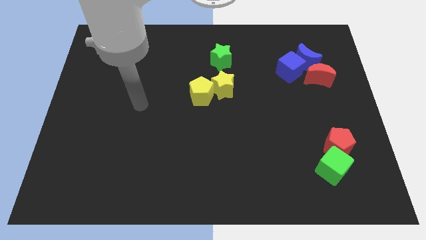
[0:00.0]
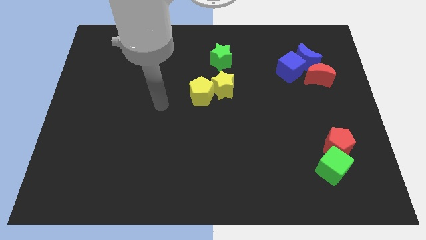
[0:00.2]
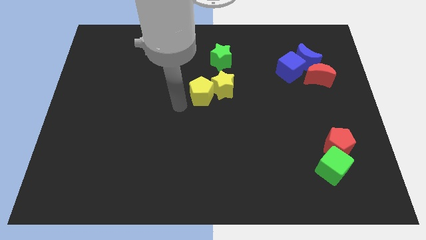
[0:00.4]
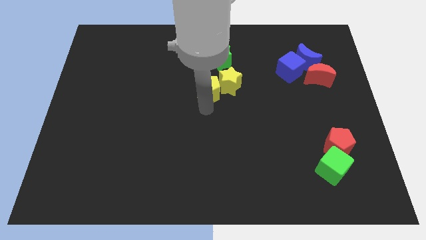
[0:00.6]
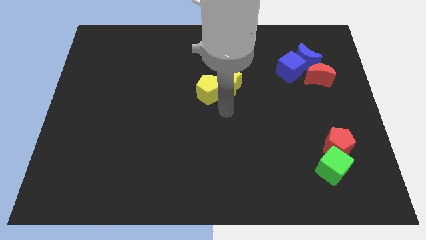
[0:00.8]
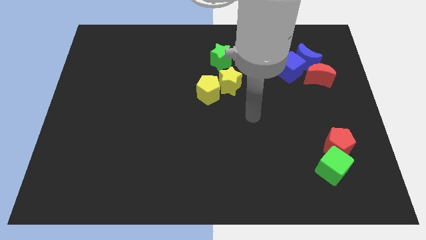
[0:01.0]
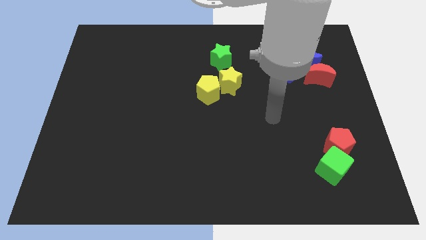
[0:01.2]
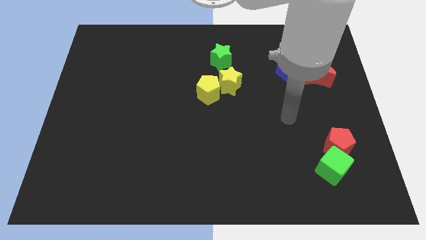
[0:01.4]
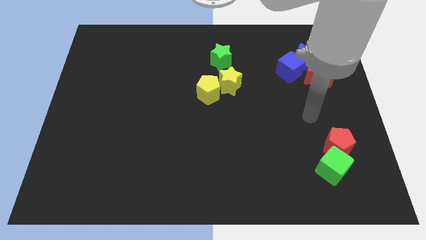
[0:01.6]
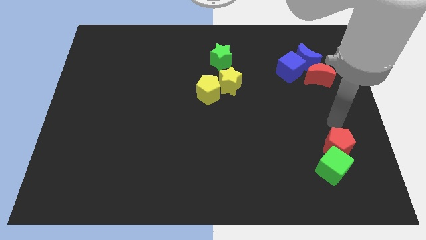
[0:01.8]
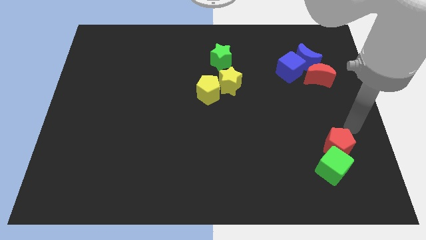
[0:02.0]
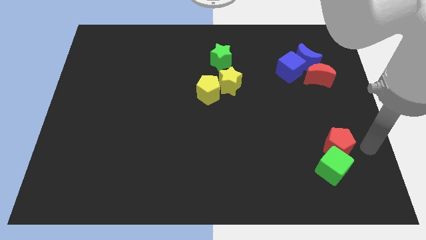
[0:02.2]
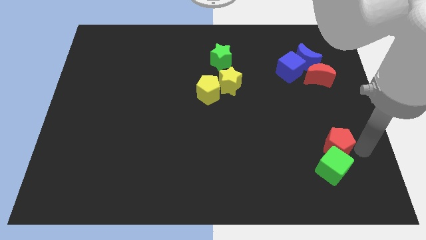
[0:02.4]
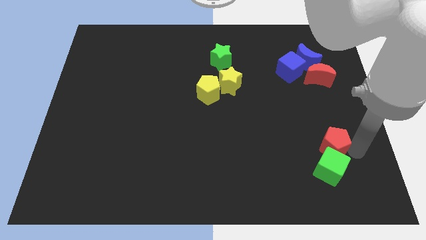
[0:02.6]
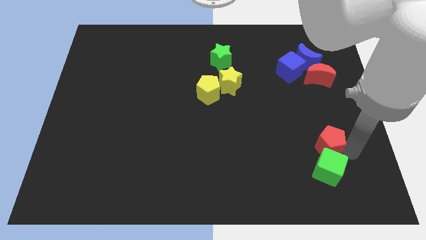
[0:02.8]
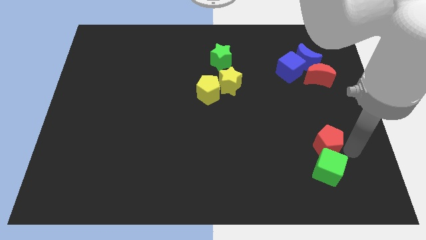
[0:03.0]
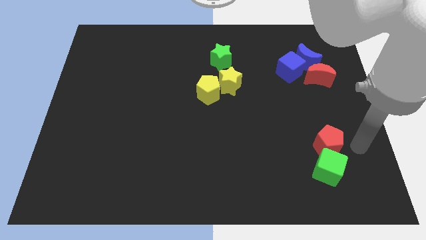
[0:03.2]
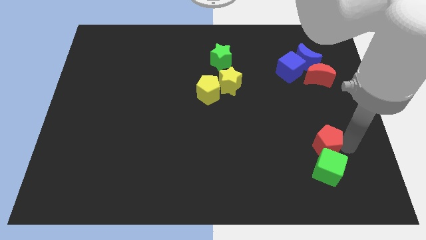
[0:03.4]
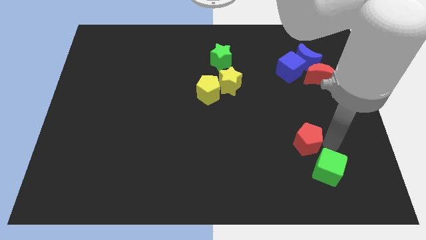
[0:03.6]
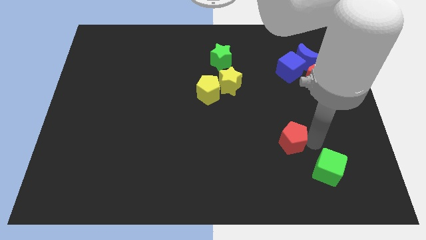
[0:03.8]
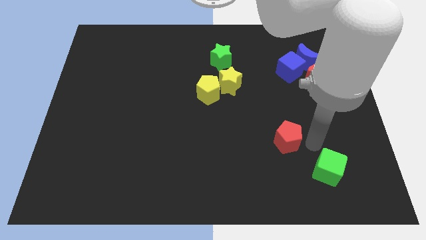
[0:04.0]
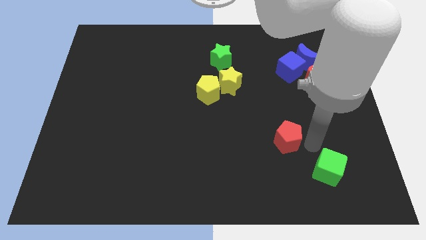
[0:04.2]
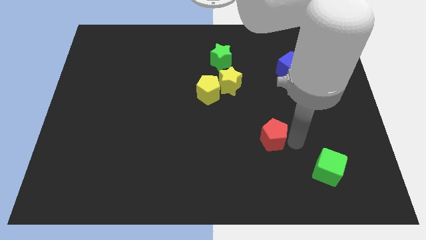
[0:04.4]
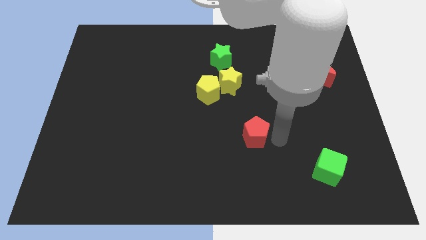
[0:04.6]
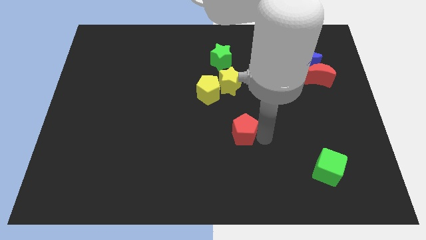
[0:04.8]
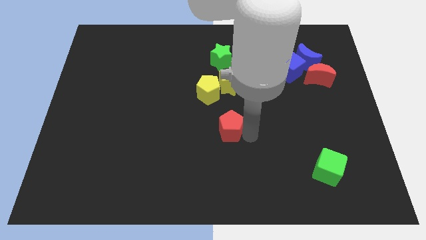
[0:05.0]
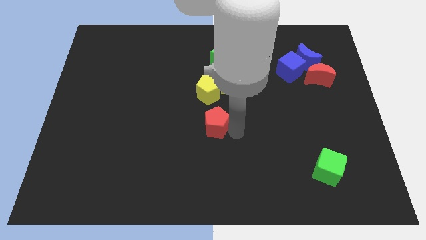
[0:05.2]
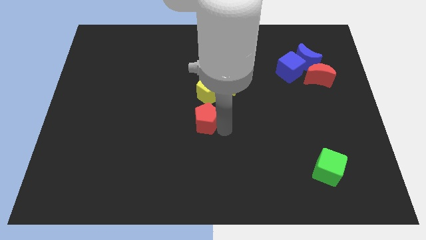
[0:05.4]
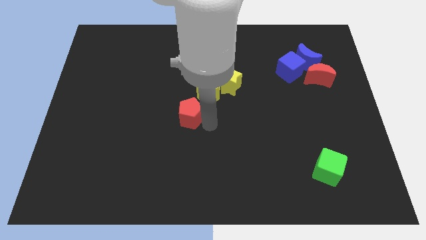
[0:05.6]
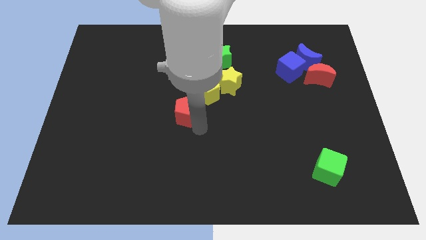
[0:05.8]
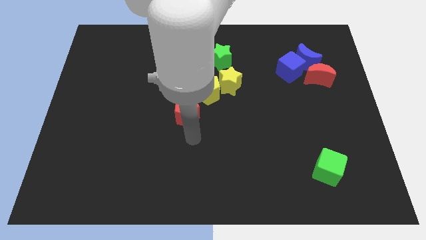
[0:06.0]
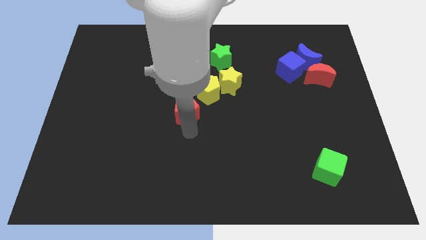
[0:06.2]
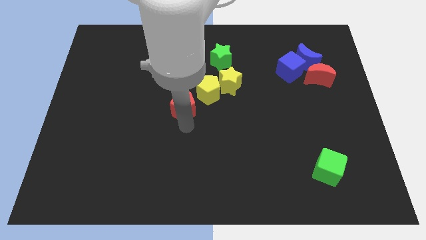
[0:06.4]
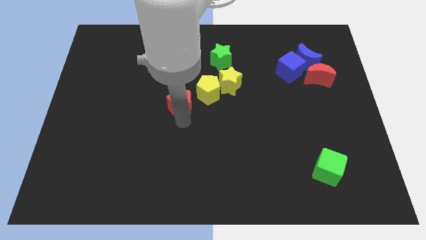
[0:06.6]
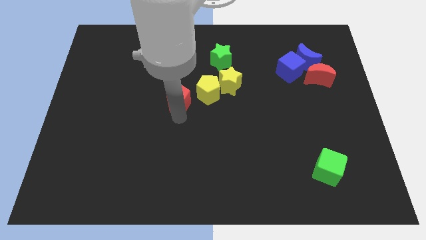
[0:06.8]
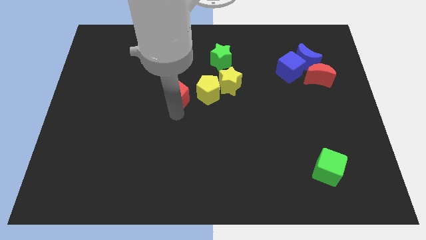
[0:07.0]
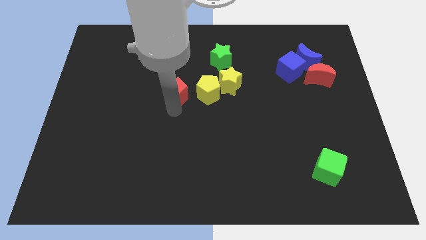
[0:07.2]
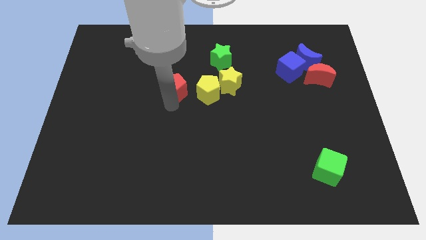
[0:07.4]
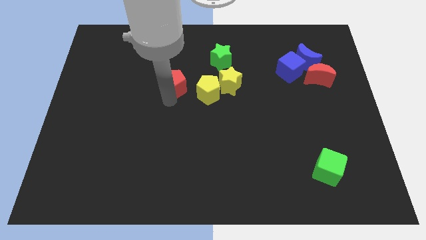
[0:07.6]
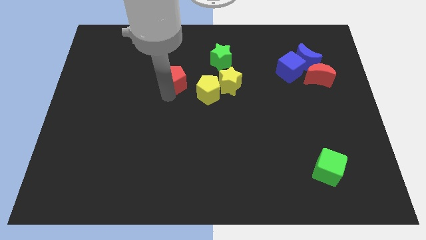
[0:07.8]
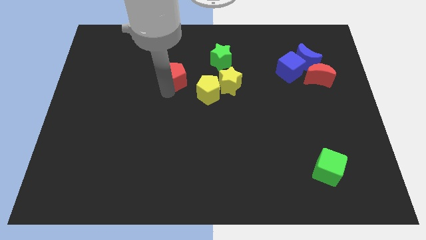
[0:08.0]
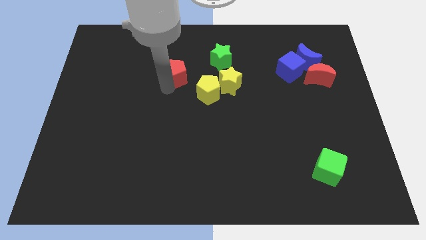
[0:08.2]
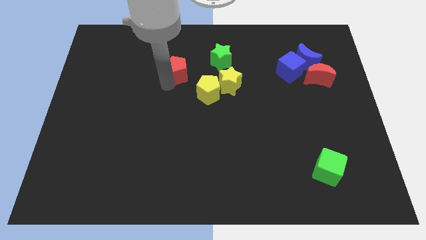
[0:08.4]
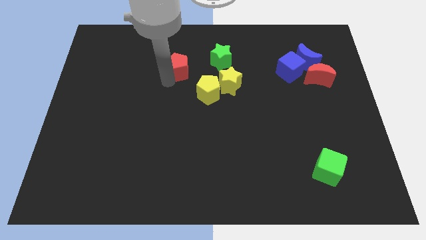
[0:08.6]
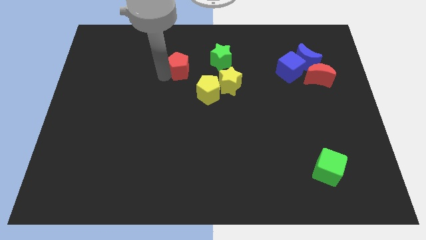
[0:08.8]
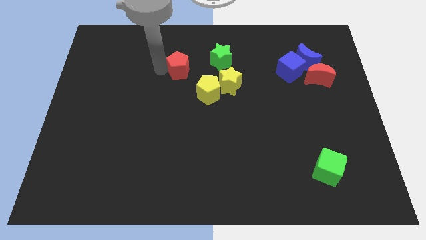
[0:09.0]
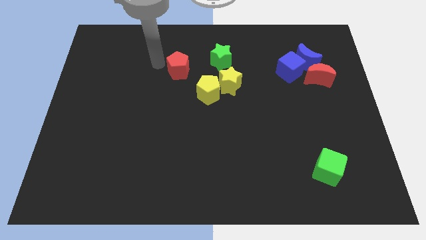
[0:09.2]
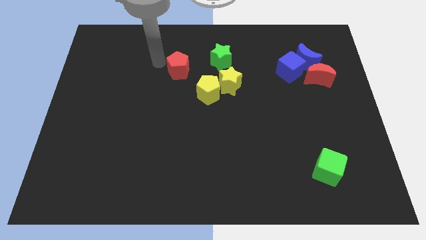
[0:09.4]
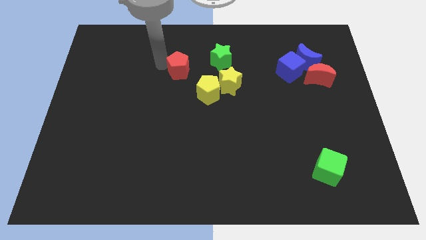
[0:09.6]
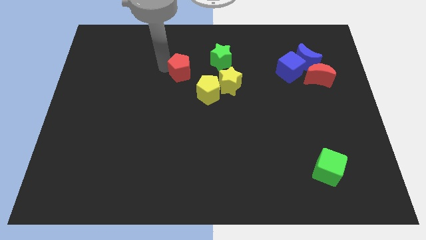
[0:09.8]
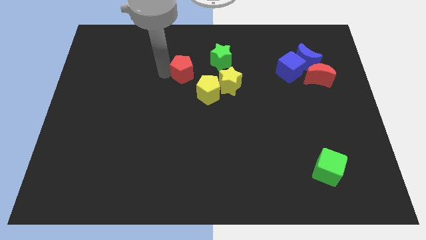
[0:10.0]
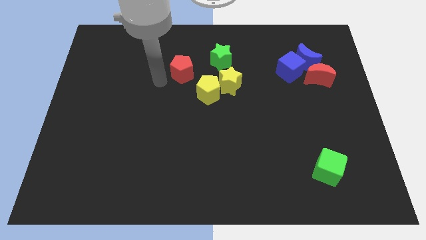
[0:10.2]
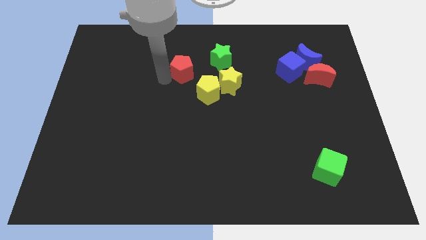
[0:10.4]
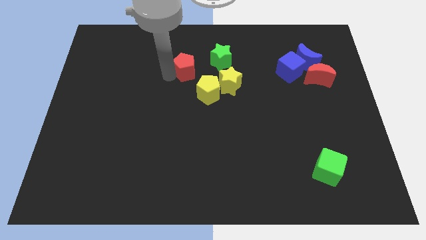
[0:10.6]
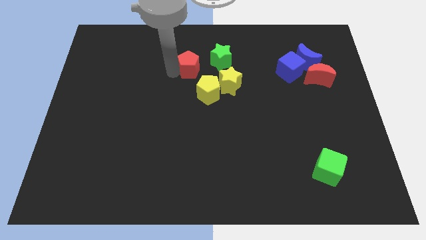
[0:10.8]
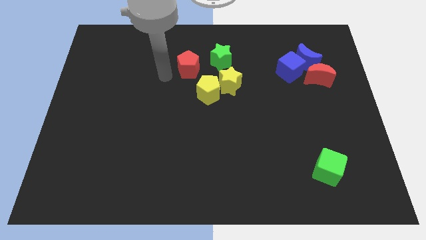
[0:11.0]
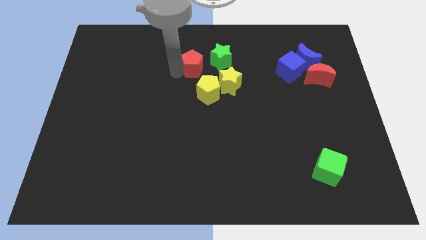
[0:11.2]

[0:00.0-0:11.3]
move the red pentagon above the yellow pentagon
